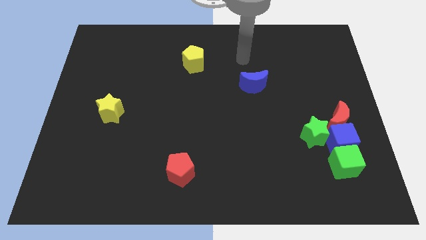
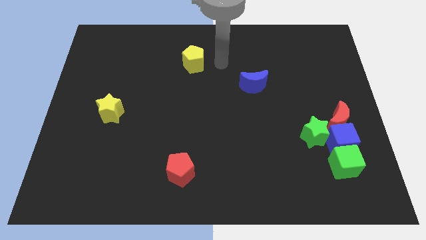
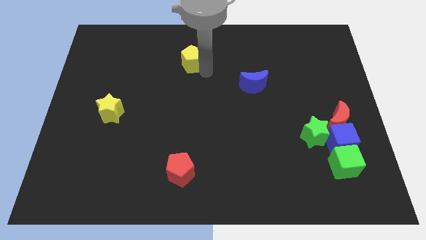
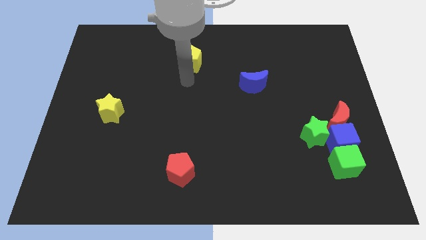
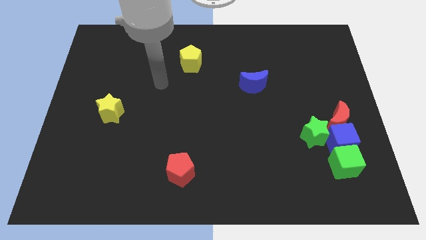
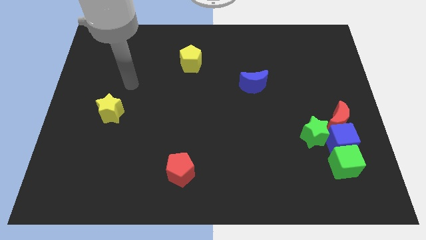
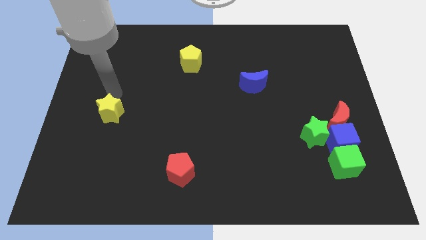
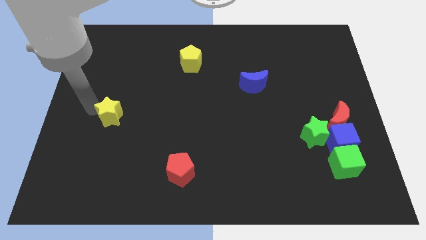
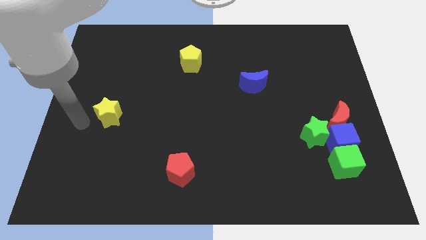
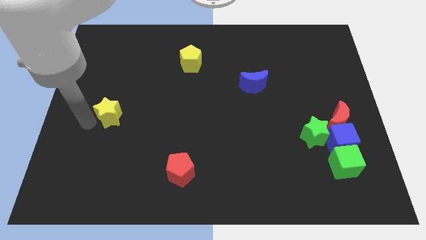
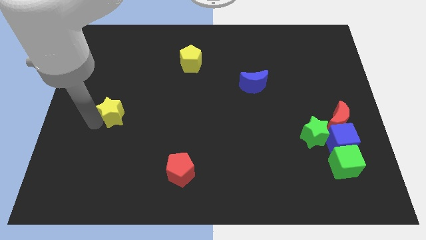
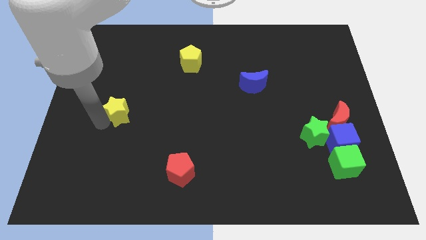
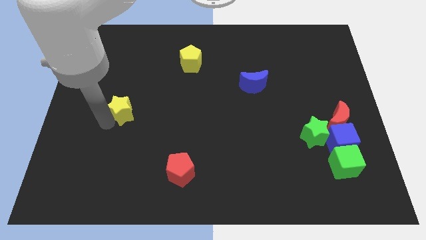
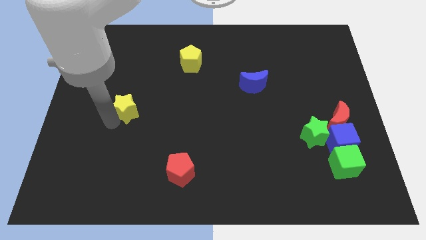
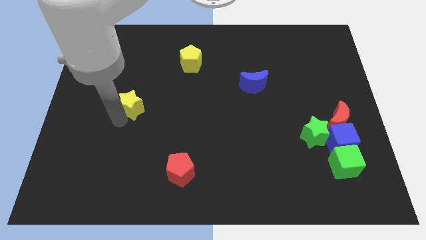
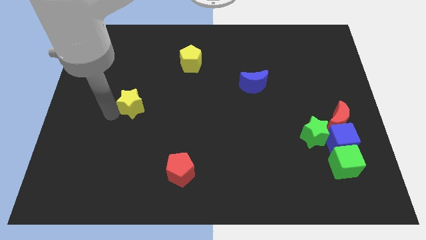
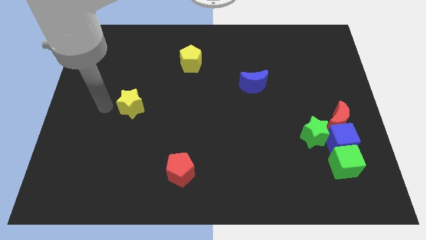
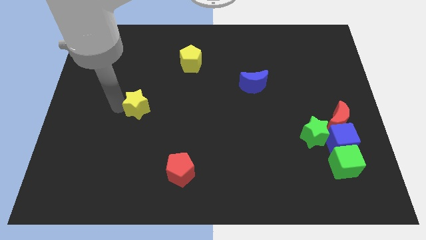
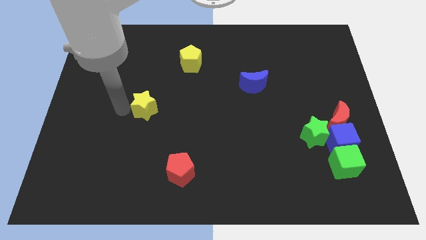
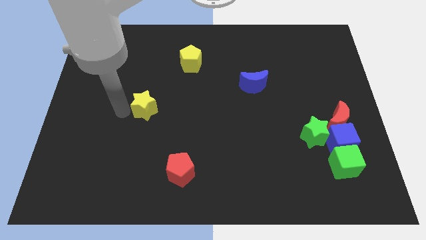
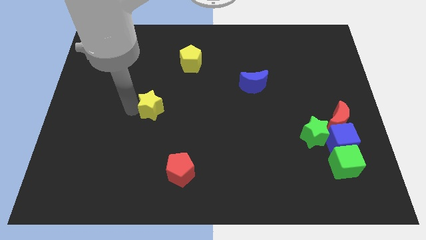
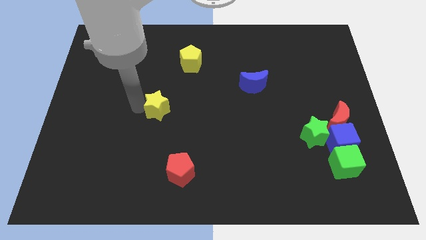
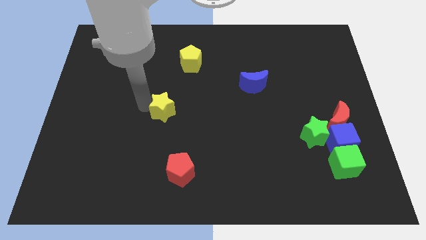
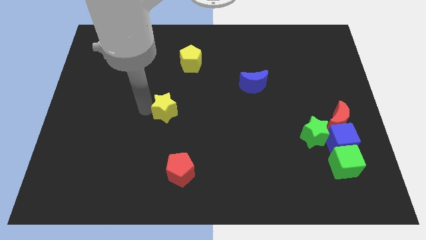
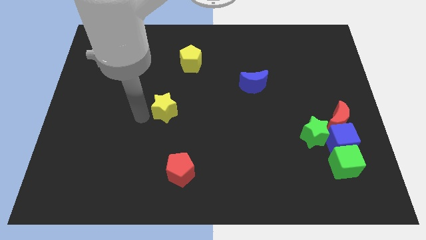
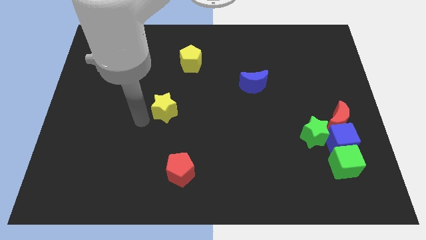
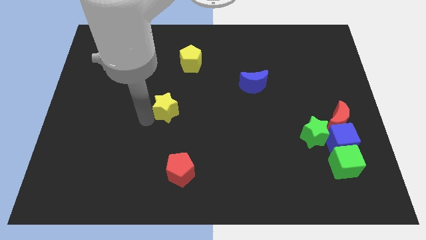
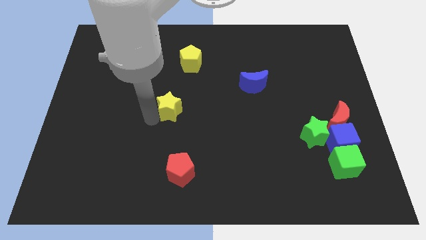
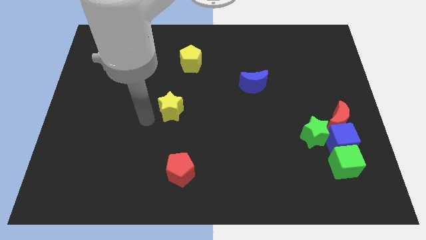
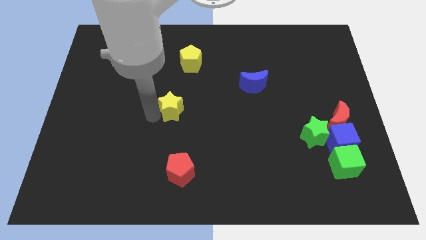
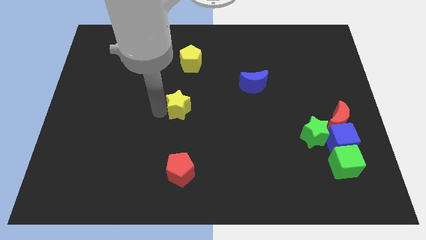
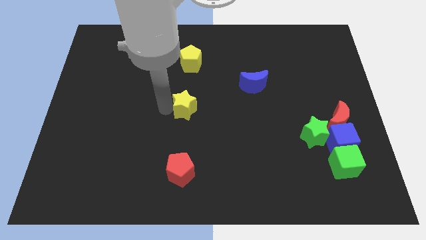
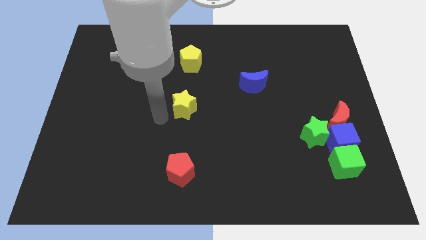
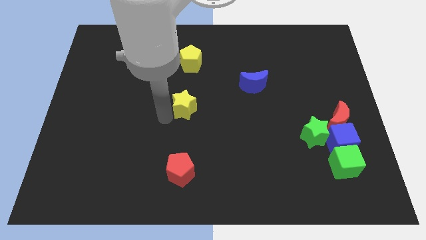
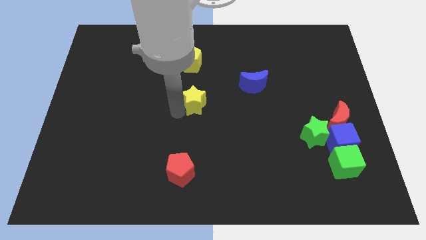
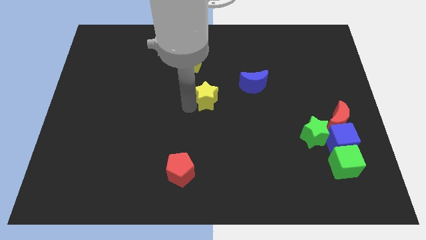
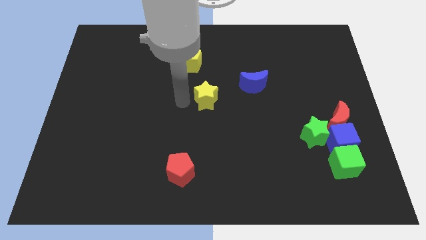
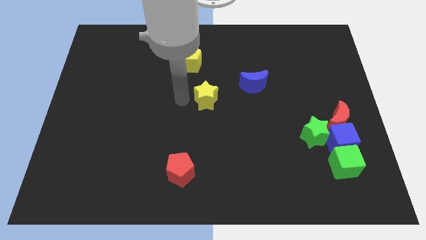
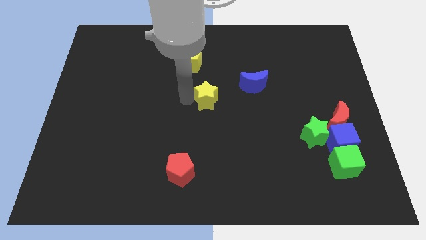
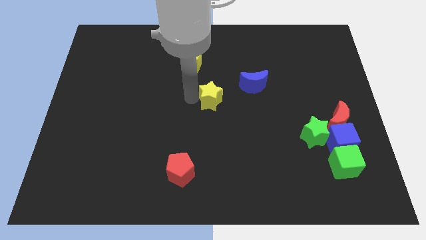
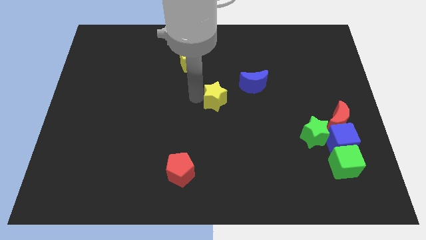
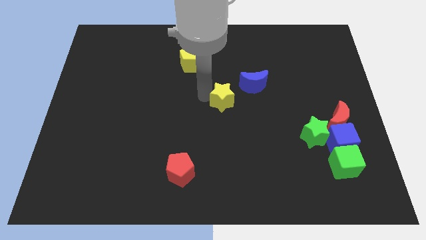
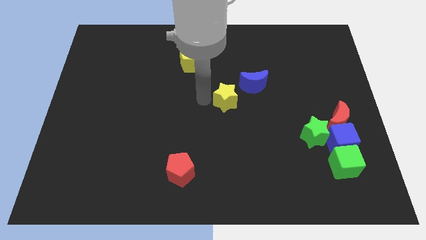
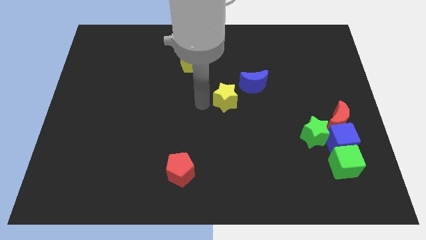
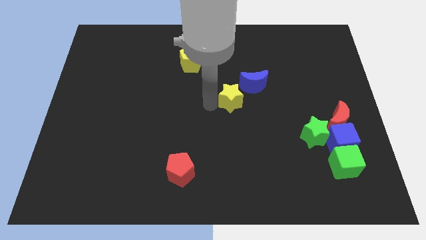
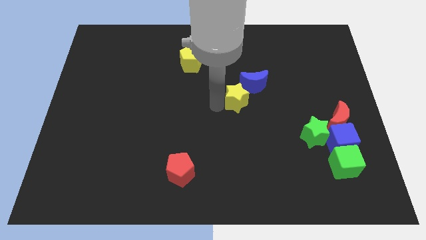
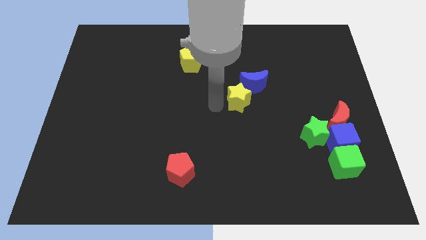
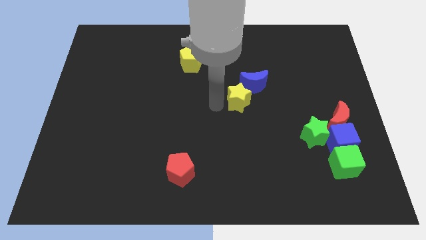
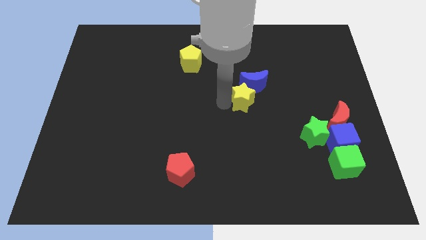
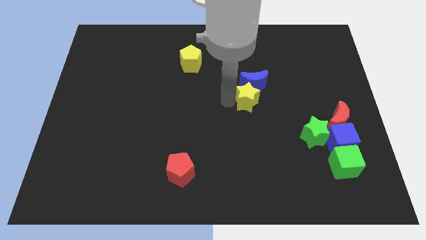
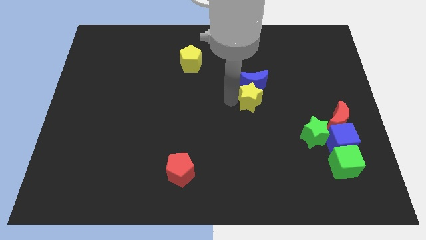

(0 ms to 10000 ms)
put the yellow star to the bottom right side of the blue moon

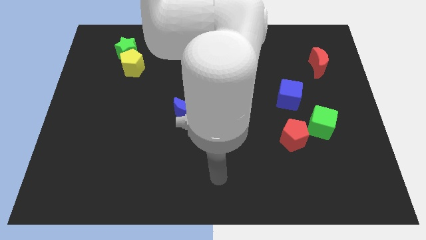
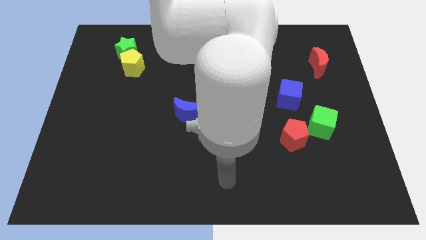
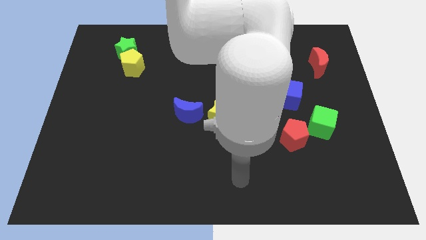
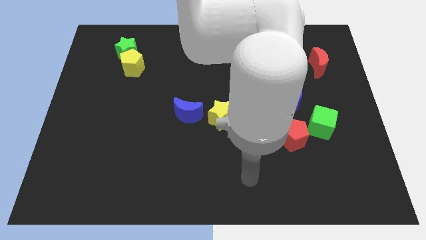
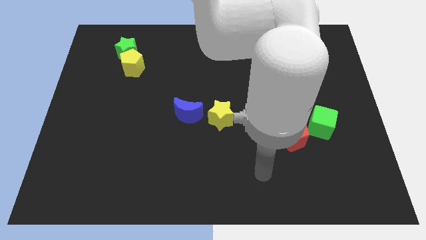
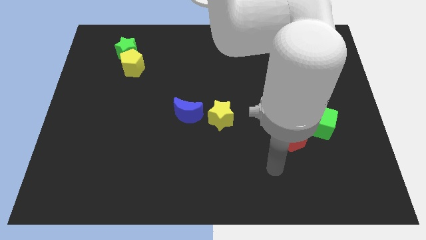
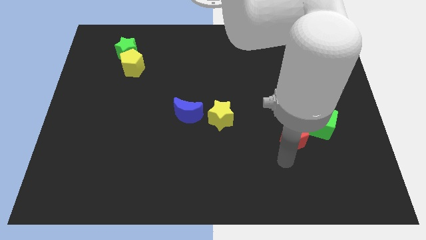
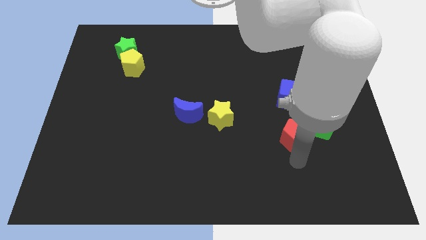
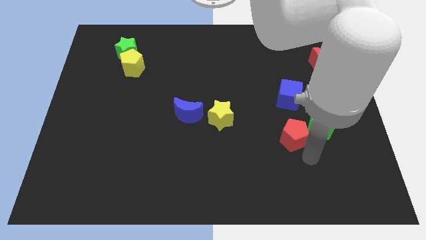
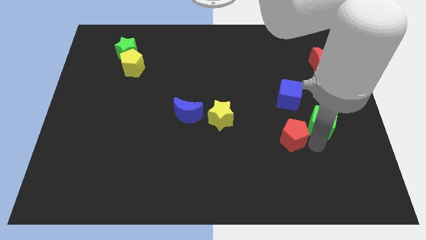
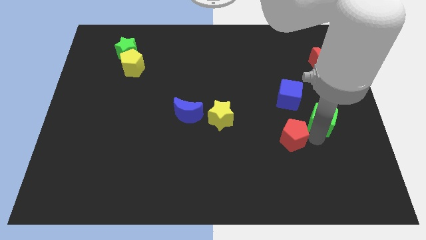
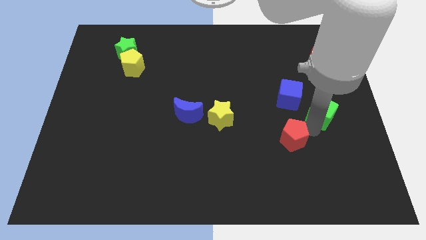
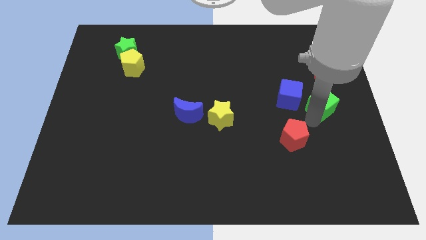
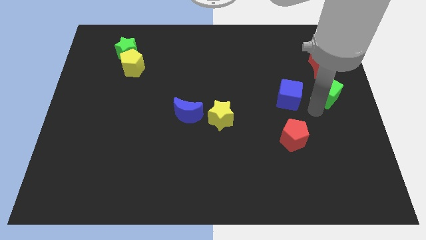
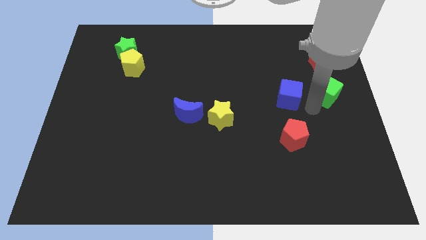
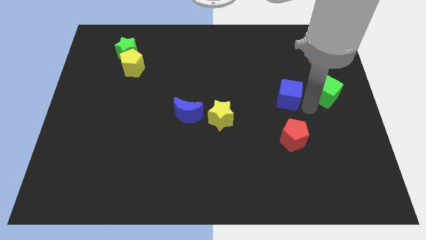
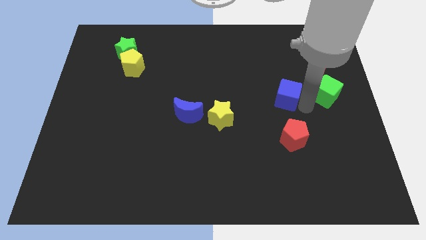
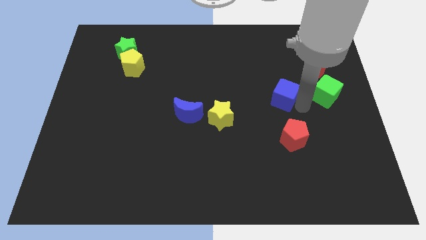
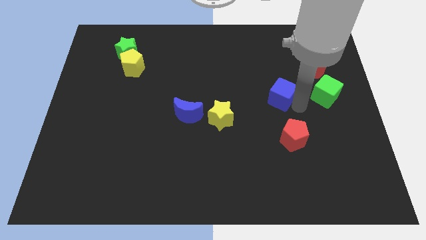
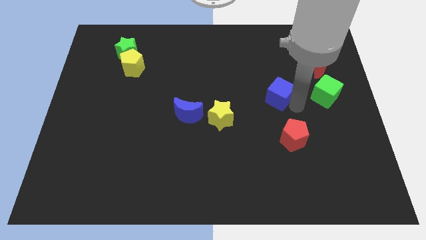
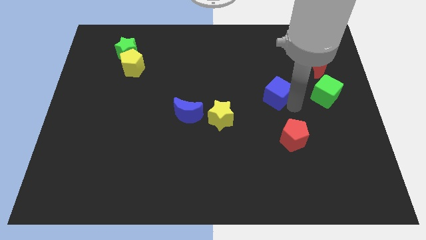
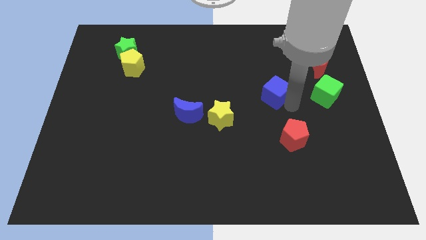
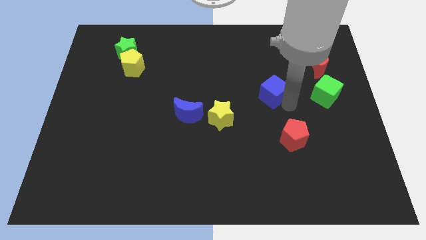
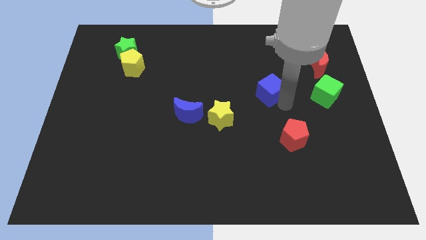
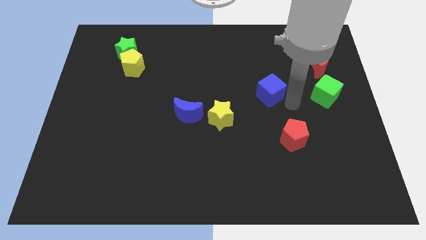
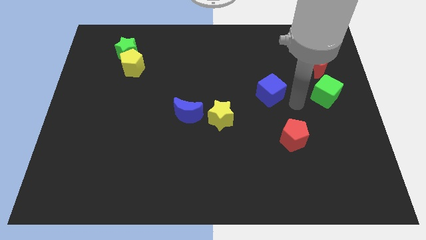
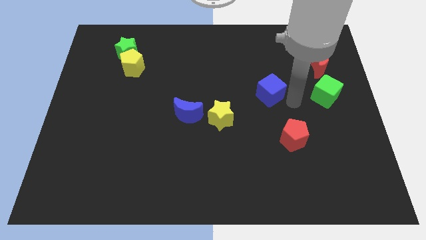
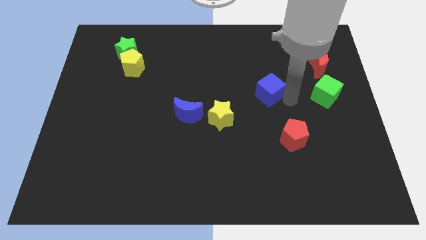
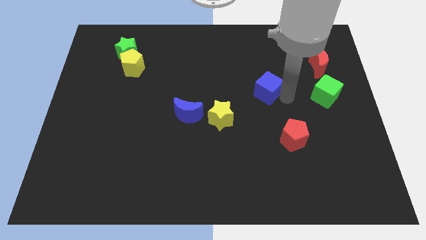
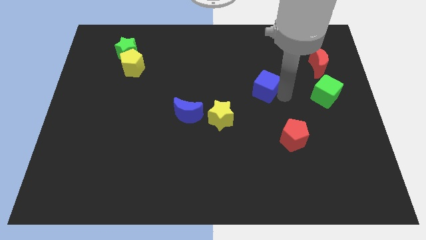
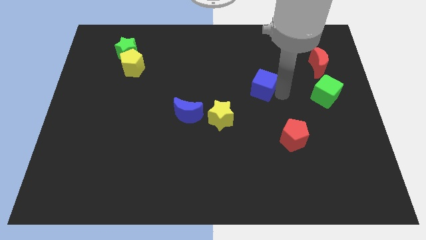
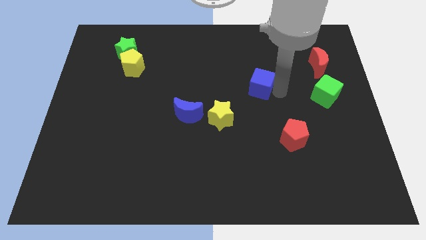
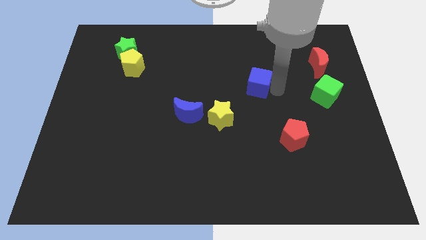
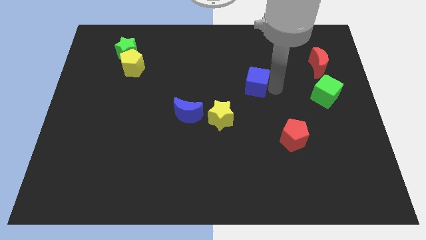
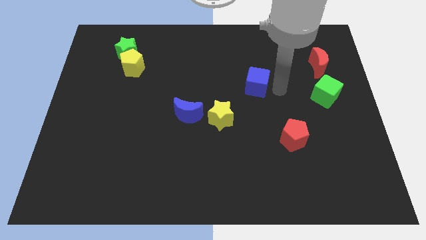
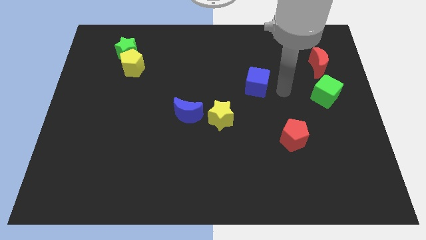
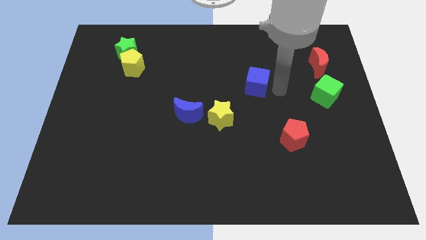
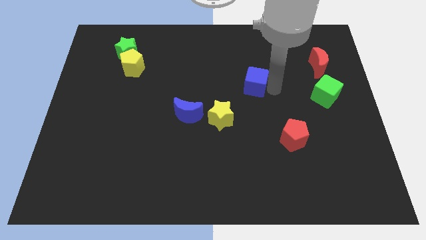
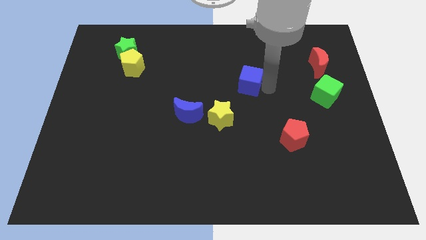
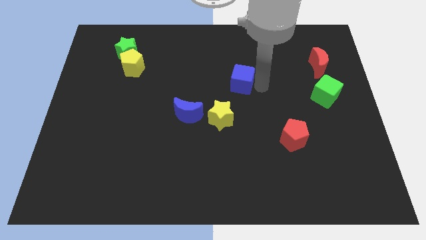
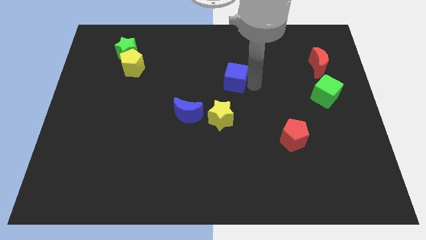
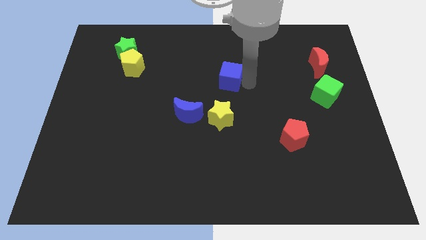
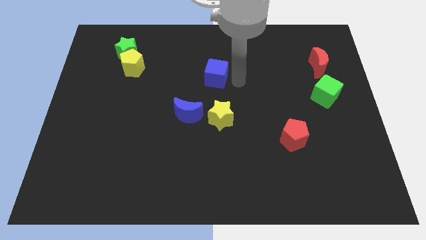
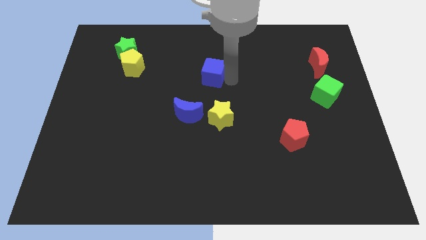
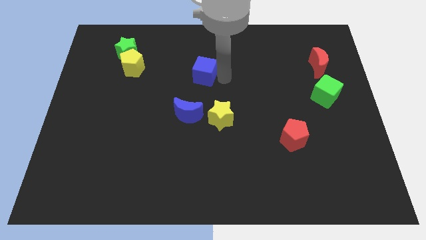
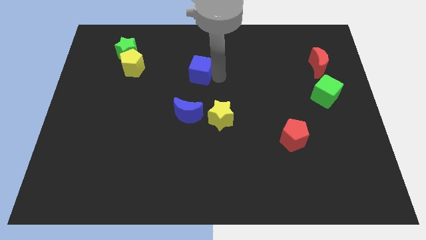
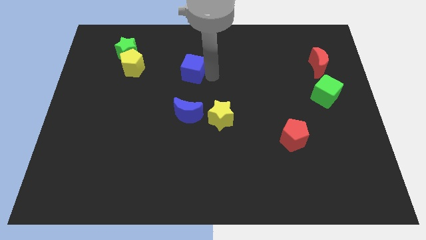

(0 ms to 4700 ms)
push the blue cube to the right side of the yellow pentagon
